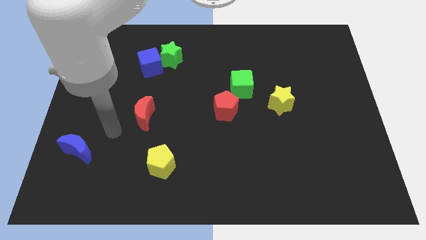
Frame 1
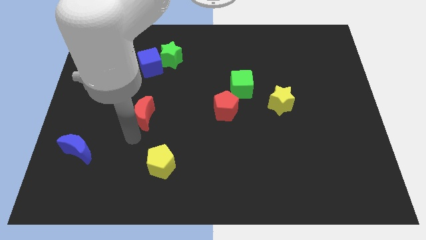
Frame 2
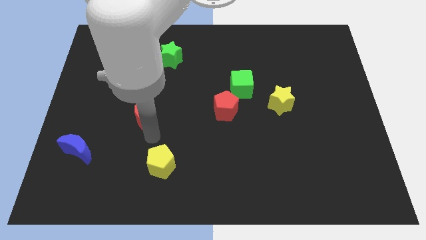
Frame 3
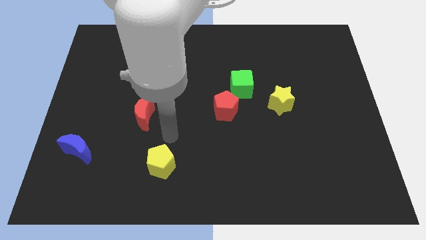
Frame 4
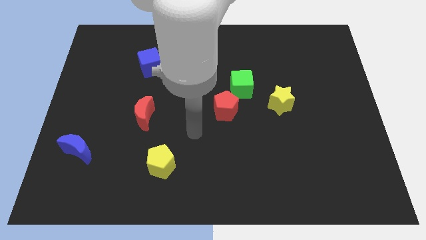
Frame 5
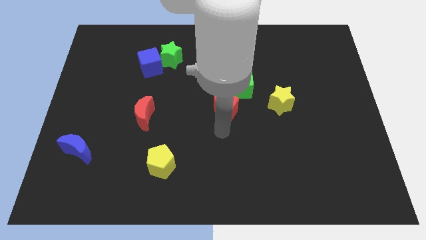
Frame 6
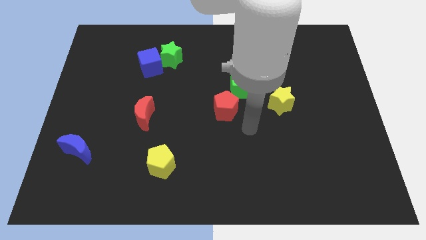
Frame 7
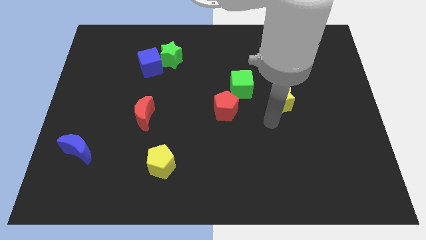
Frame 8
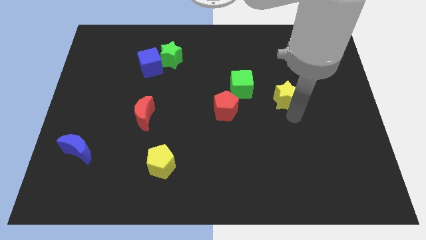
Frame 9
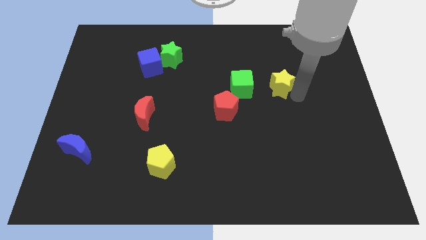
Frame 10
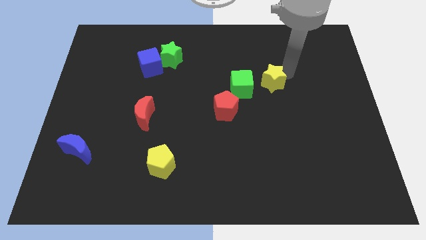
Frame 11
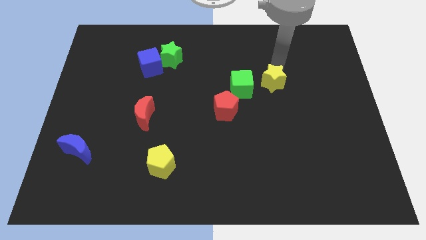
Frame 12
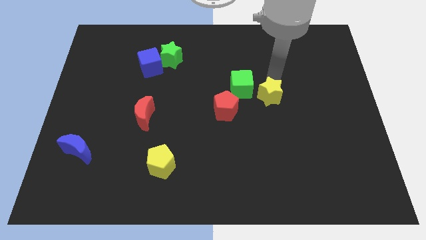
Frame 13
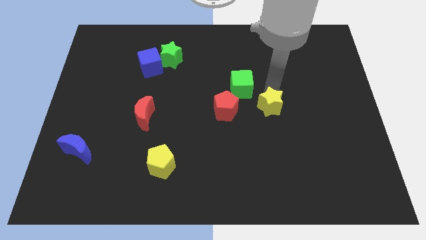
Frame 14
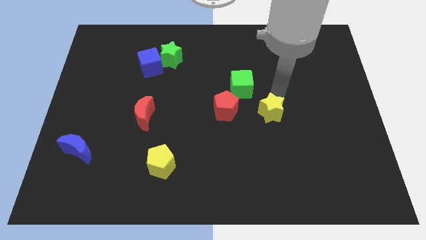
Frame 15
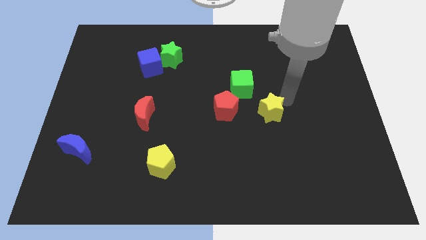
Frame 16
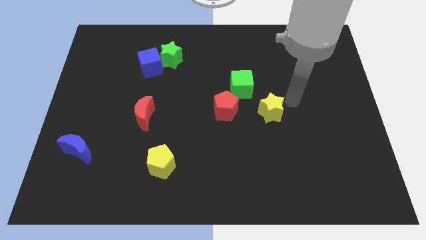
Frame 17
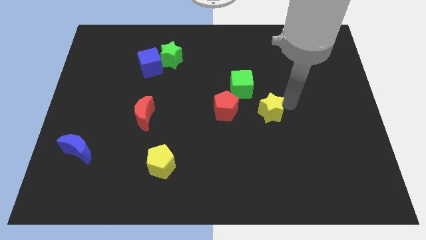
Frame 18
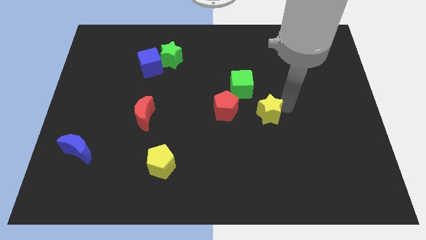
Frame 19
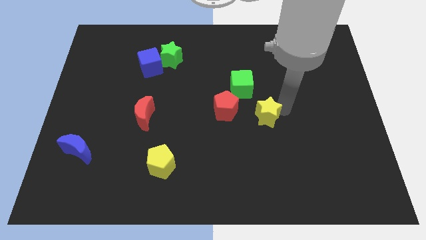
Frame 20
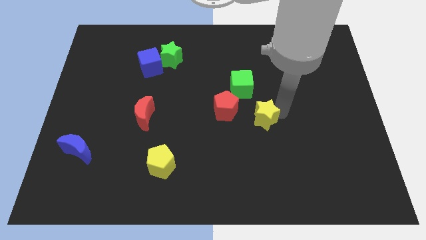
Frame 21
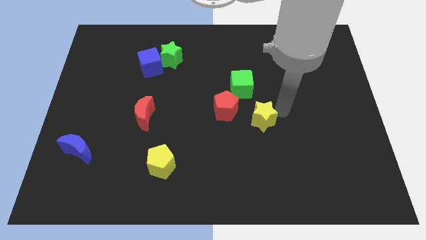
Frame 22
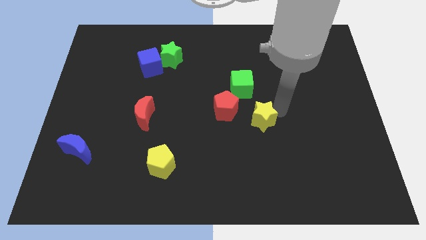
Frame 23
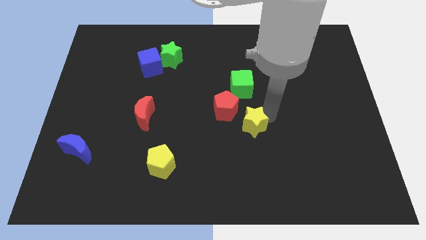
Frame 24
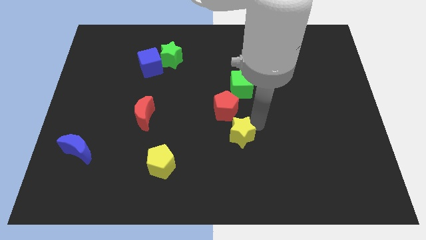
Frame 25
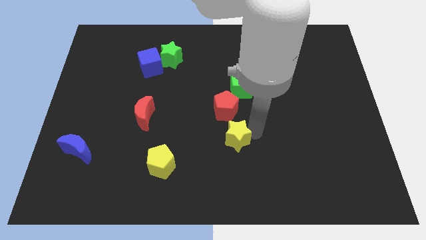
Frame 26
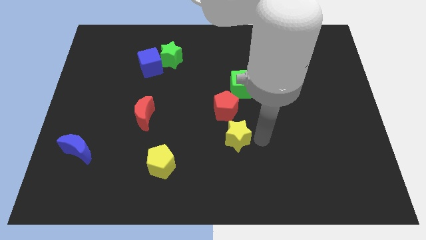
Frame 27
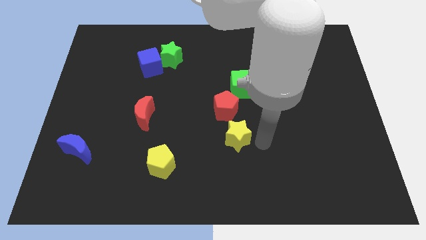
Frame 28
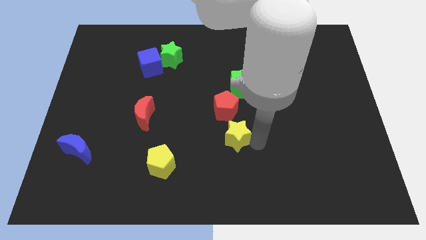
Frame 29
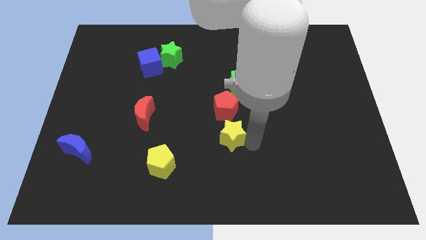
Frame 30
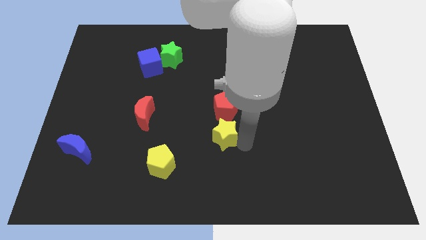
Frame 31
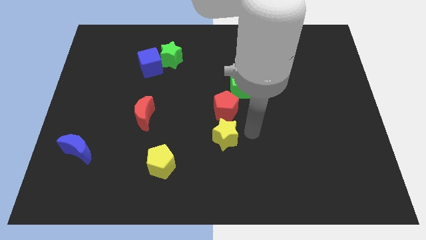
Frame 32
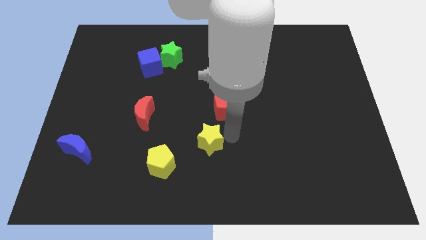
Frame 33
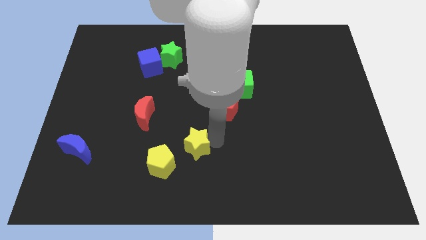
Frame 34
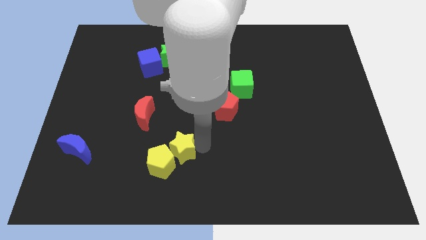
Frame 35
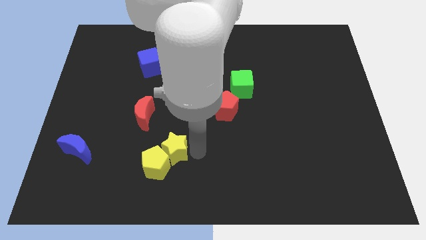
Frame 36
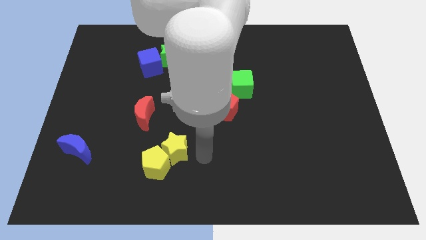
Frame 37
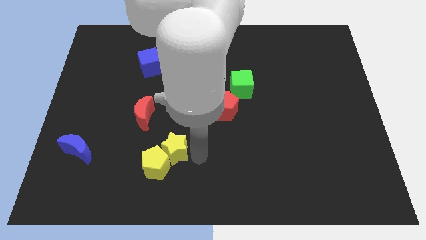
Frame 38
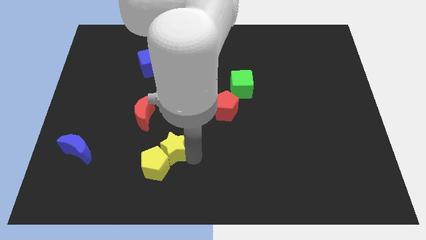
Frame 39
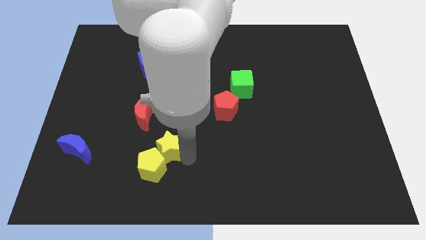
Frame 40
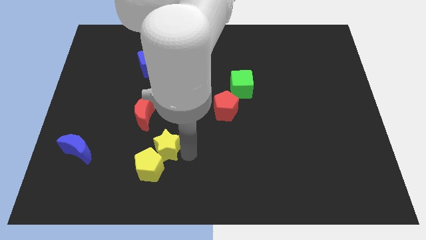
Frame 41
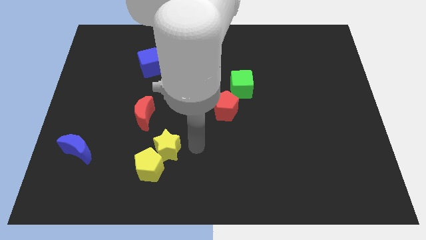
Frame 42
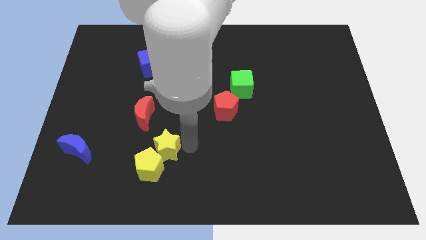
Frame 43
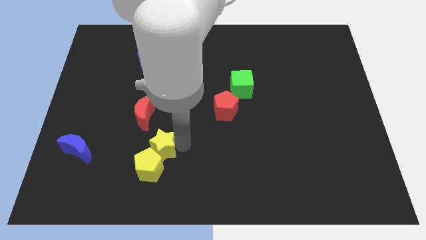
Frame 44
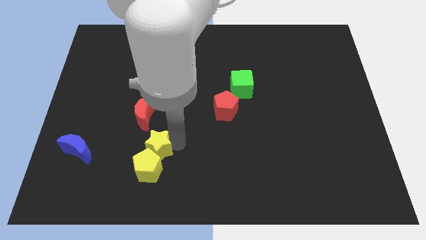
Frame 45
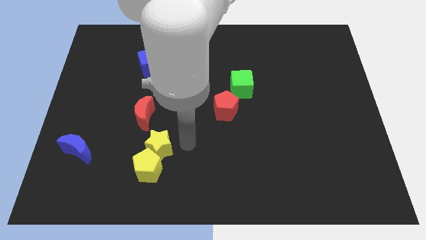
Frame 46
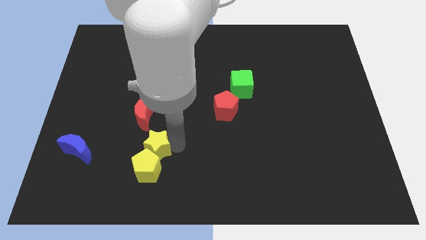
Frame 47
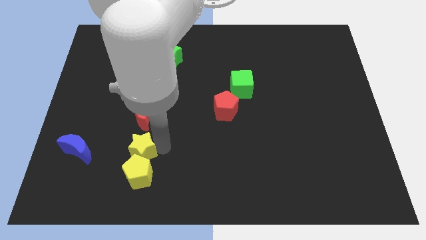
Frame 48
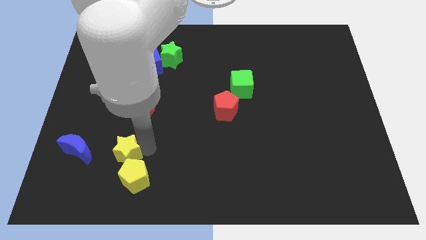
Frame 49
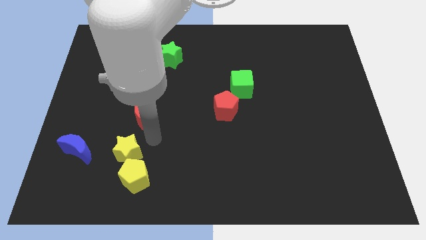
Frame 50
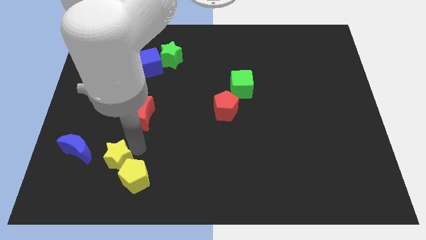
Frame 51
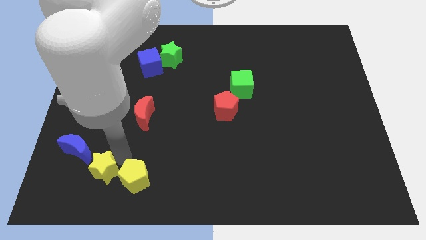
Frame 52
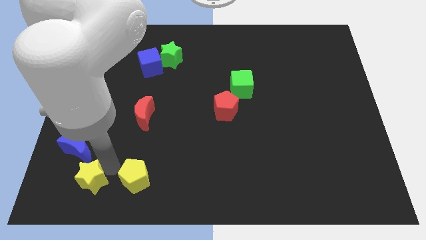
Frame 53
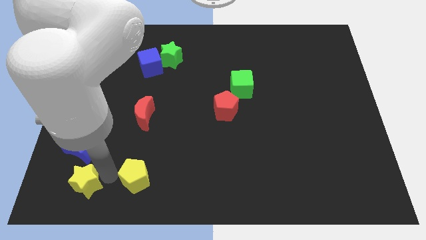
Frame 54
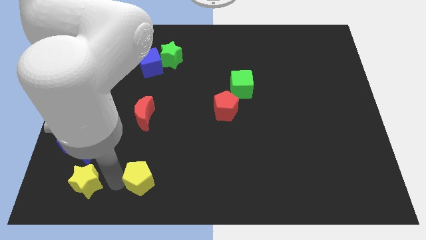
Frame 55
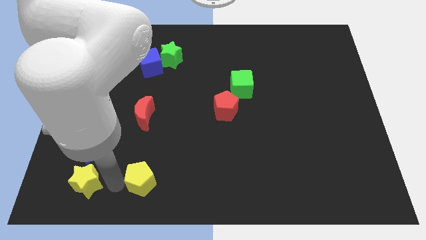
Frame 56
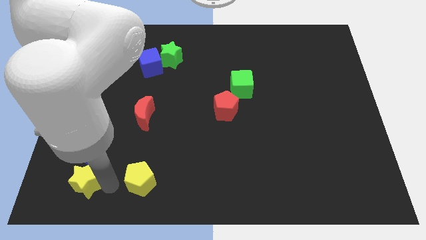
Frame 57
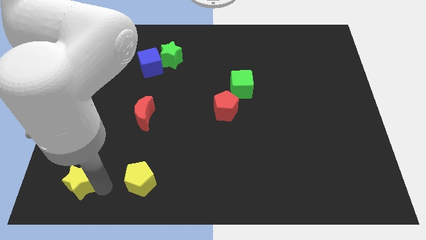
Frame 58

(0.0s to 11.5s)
slide the yellow star to the bottom left of the board

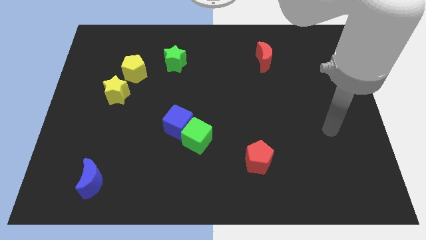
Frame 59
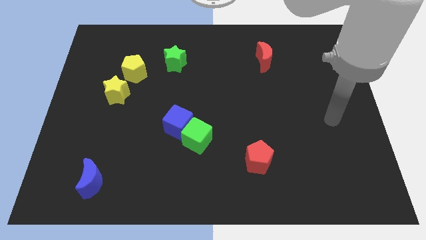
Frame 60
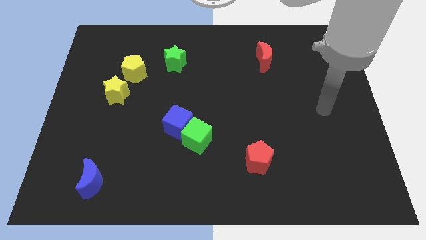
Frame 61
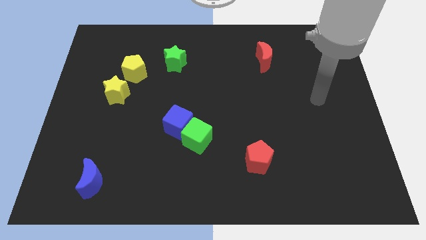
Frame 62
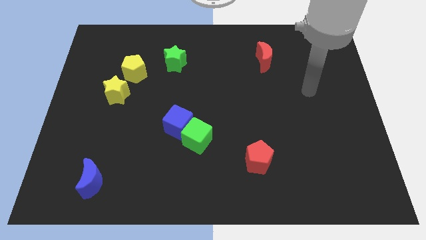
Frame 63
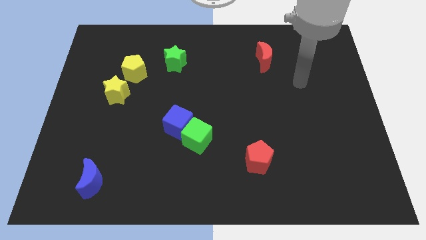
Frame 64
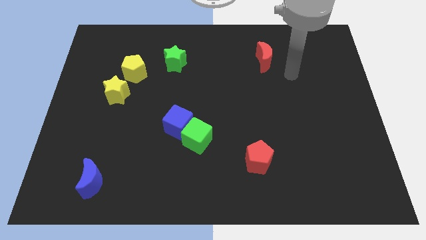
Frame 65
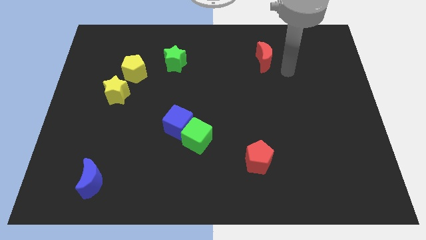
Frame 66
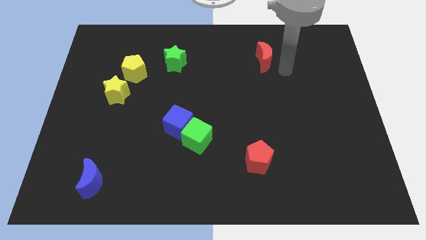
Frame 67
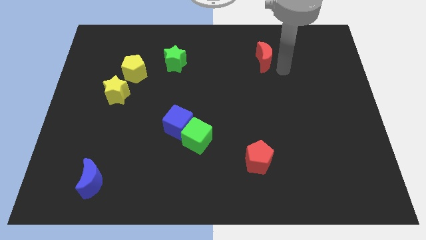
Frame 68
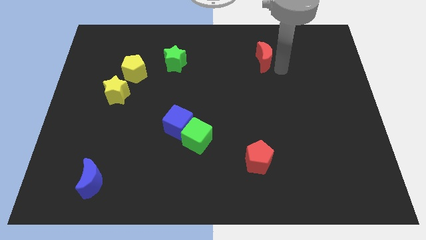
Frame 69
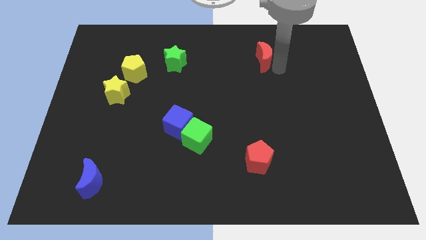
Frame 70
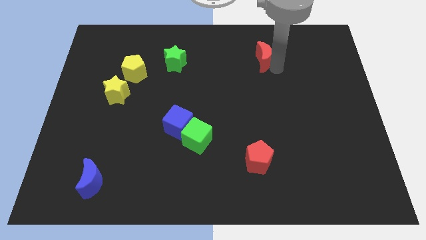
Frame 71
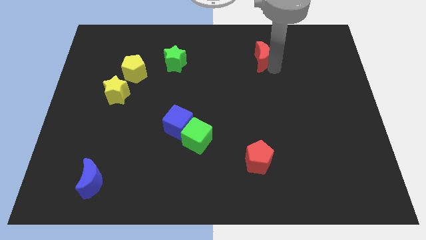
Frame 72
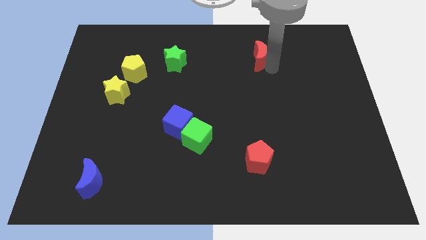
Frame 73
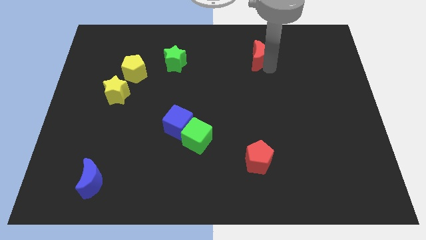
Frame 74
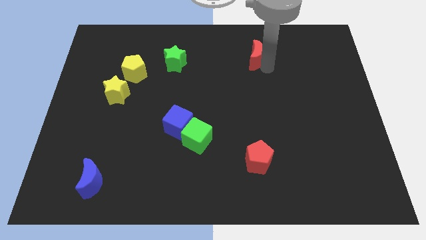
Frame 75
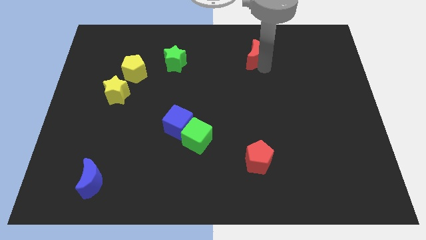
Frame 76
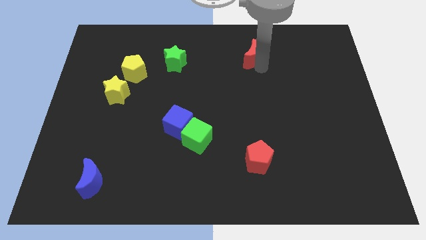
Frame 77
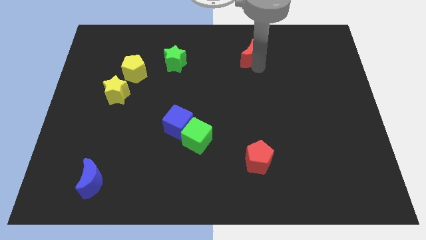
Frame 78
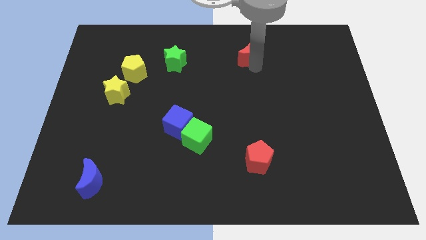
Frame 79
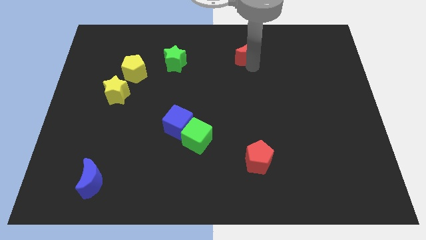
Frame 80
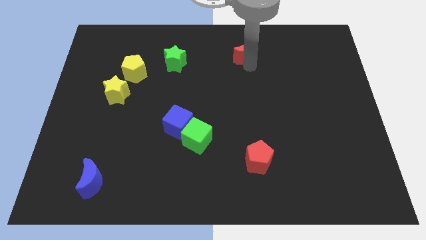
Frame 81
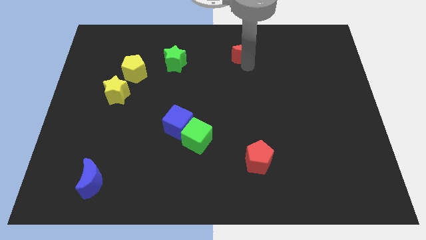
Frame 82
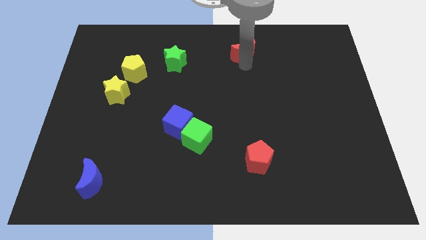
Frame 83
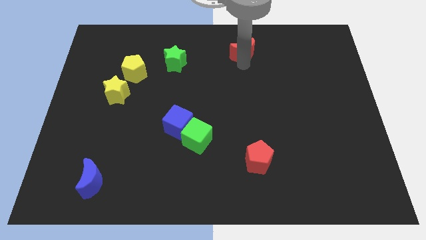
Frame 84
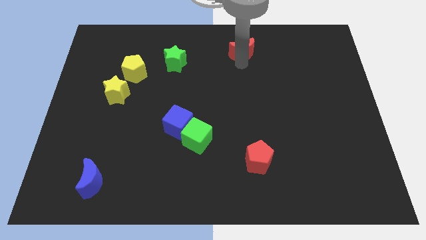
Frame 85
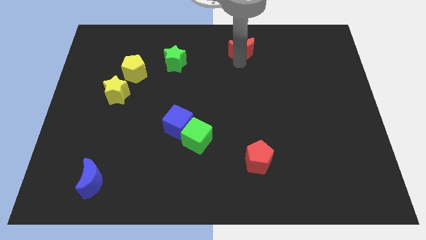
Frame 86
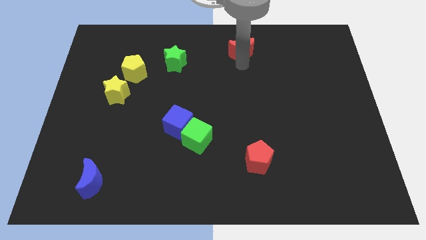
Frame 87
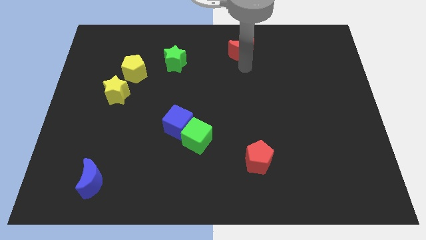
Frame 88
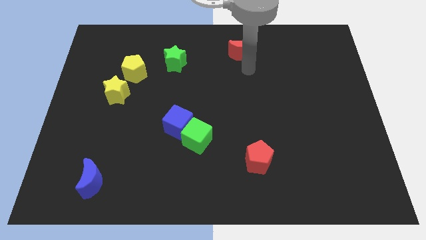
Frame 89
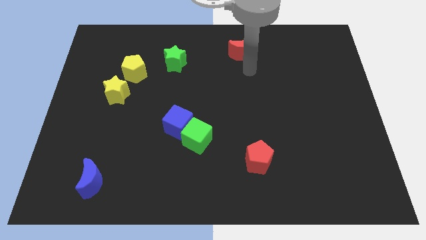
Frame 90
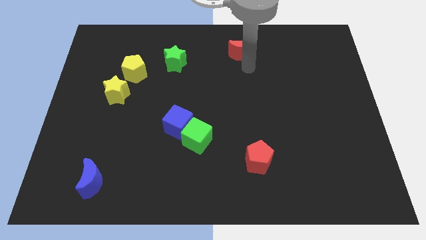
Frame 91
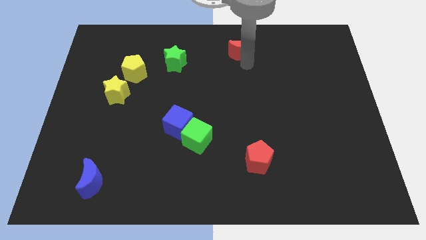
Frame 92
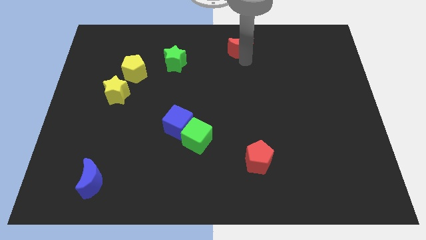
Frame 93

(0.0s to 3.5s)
slide the red moon to the towards your base
